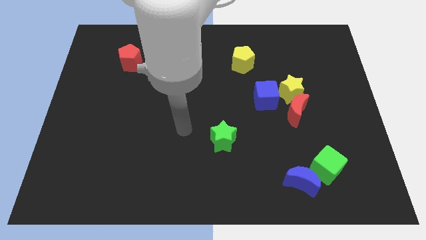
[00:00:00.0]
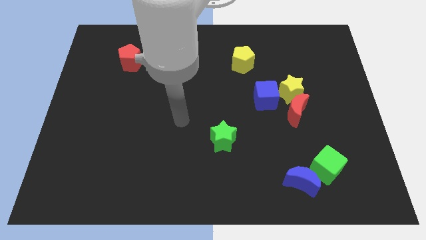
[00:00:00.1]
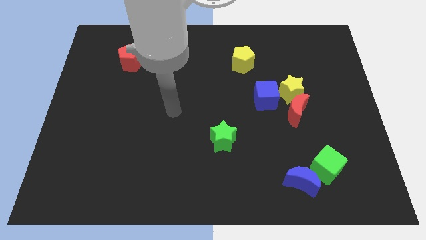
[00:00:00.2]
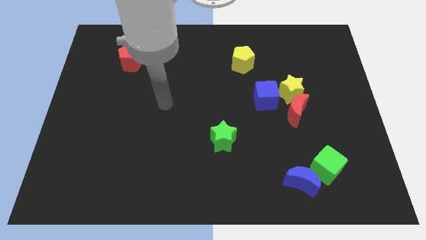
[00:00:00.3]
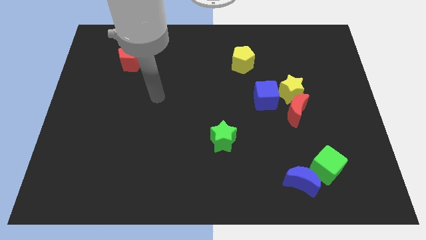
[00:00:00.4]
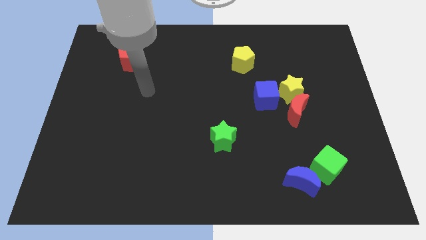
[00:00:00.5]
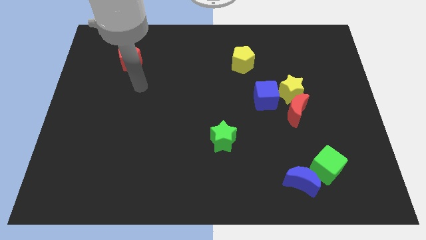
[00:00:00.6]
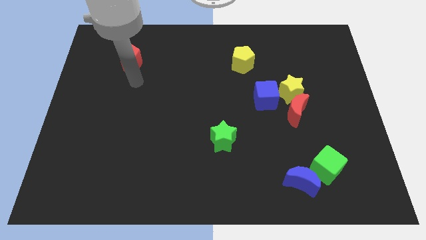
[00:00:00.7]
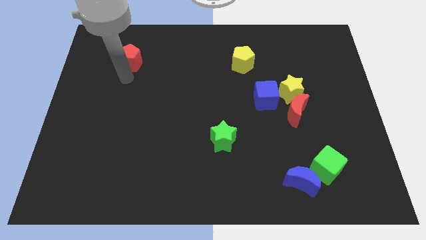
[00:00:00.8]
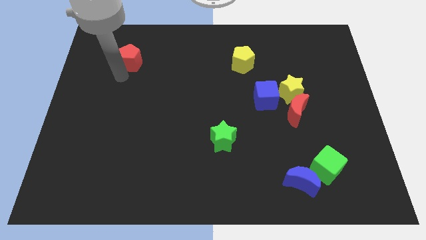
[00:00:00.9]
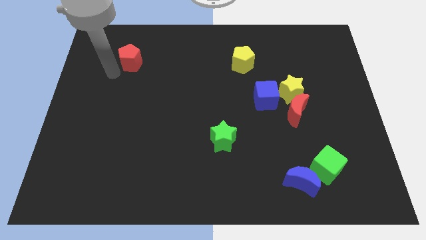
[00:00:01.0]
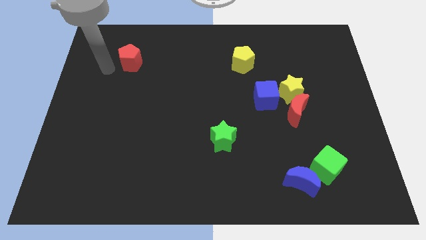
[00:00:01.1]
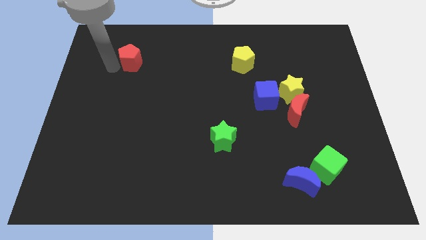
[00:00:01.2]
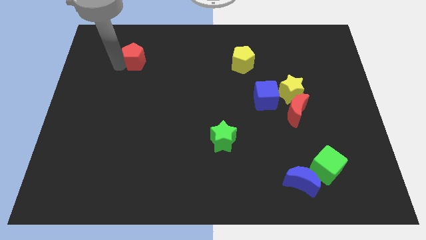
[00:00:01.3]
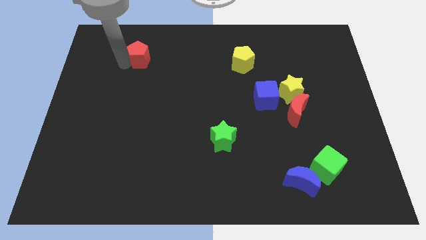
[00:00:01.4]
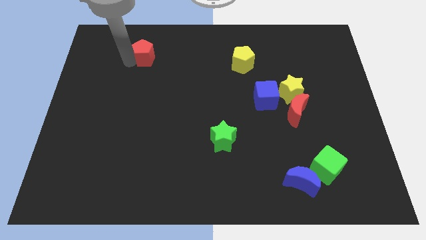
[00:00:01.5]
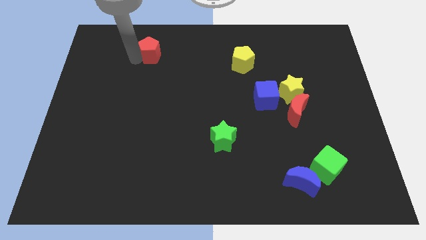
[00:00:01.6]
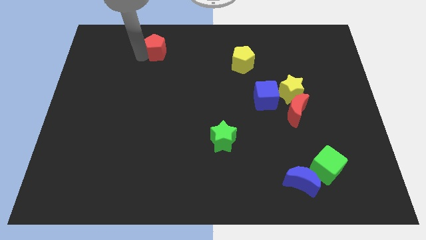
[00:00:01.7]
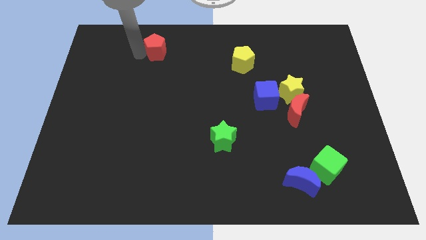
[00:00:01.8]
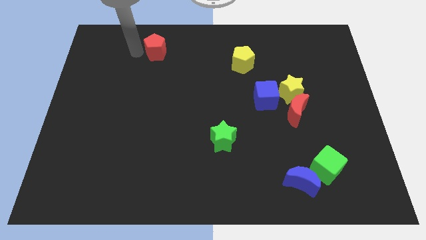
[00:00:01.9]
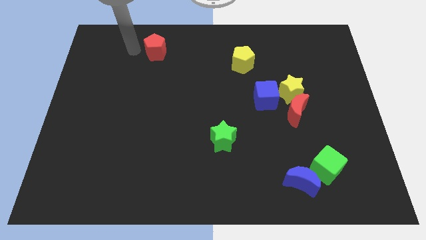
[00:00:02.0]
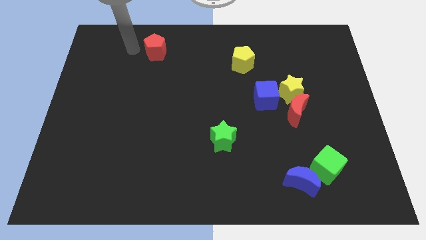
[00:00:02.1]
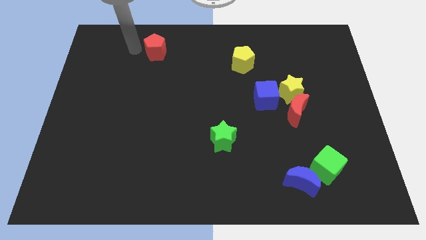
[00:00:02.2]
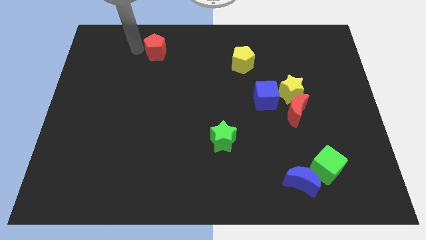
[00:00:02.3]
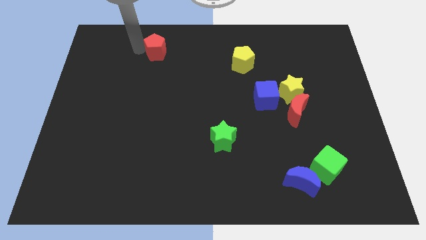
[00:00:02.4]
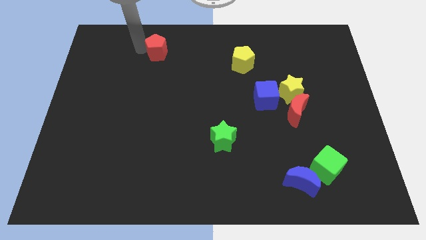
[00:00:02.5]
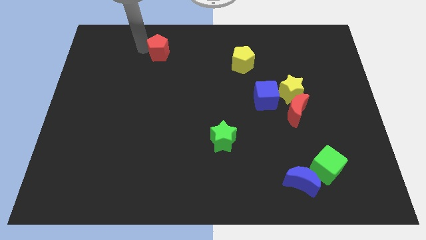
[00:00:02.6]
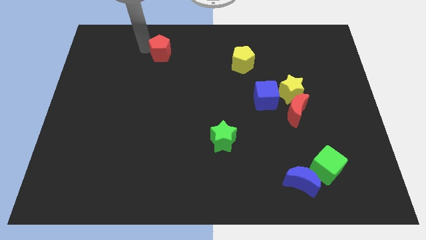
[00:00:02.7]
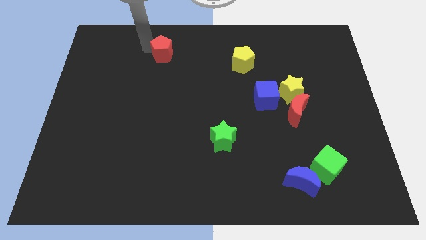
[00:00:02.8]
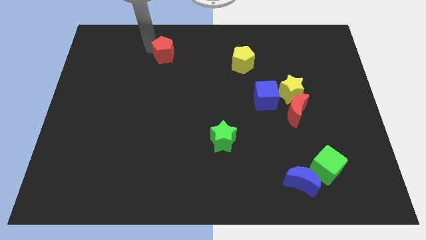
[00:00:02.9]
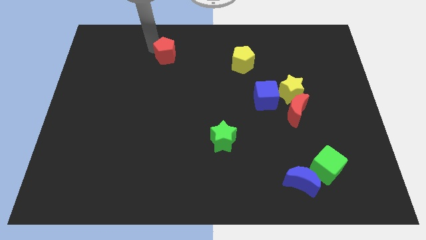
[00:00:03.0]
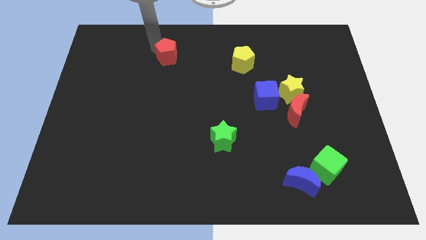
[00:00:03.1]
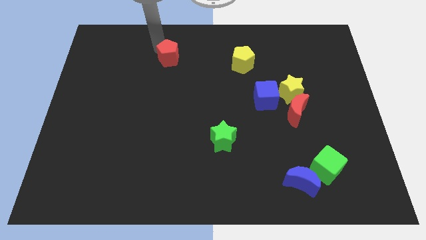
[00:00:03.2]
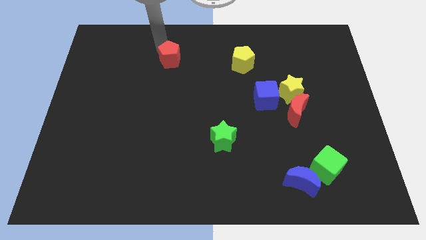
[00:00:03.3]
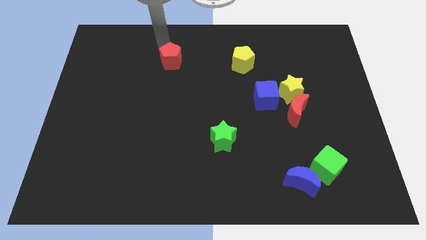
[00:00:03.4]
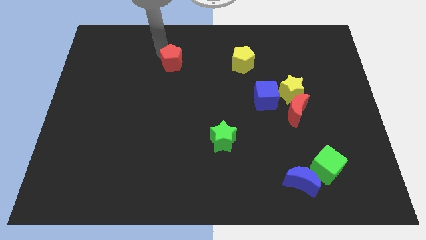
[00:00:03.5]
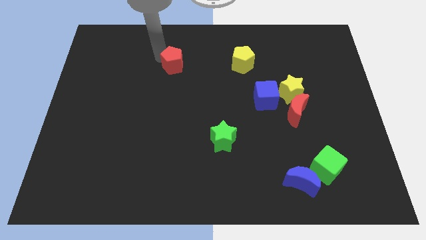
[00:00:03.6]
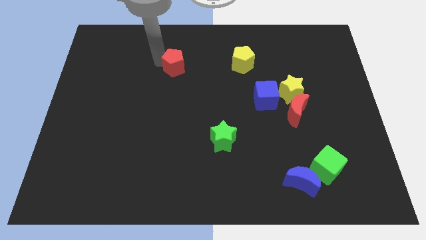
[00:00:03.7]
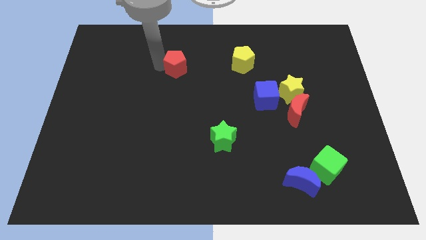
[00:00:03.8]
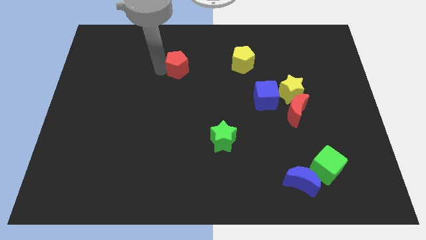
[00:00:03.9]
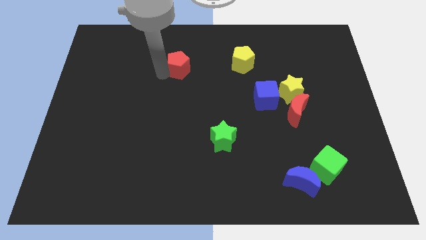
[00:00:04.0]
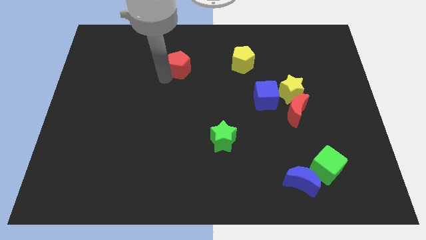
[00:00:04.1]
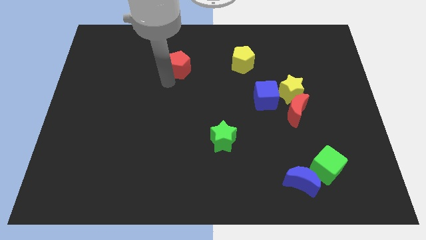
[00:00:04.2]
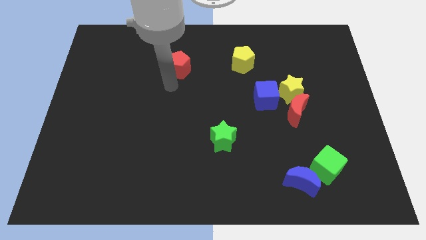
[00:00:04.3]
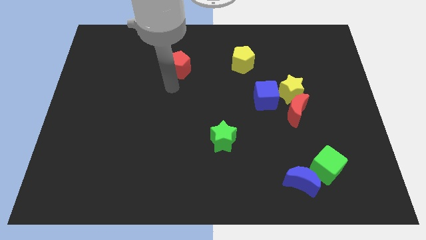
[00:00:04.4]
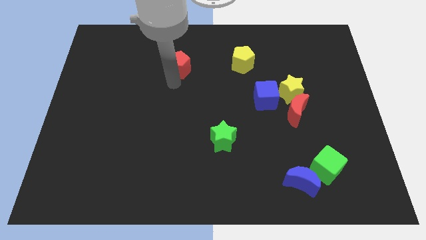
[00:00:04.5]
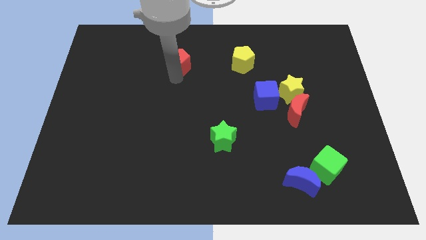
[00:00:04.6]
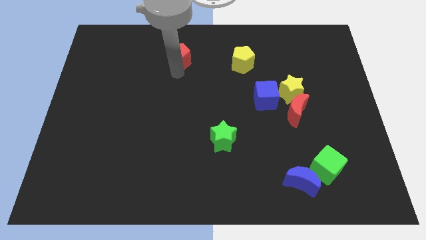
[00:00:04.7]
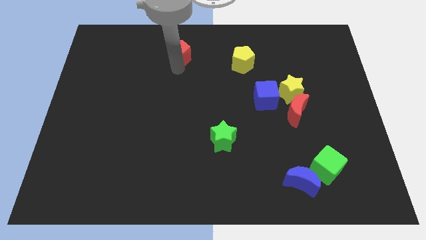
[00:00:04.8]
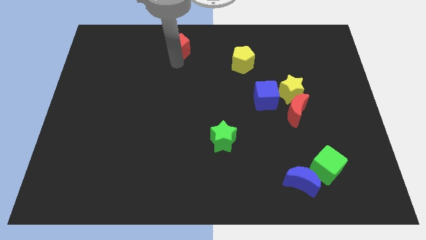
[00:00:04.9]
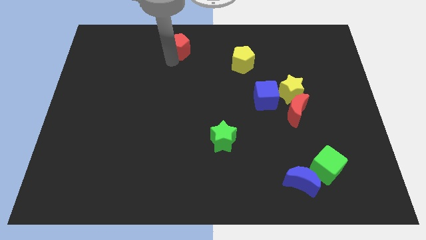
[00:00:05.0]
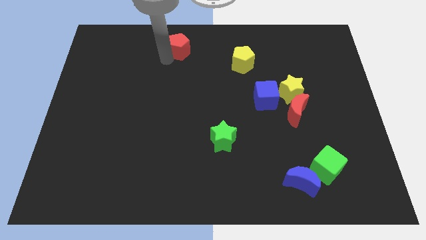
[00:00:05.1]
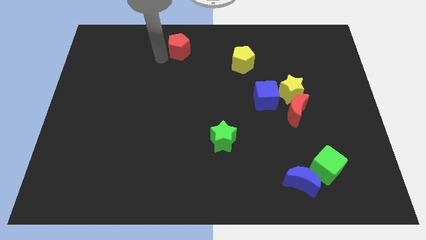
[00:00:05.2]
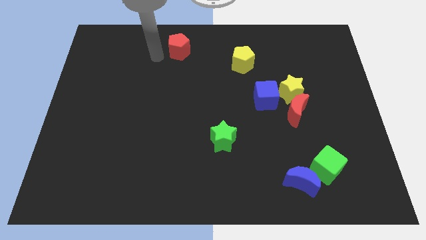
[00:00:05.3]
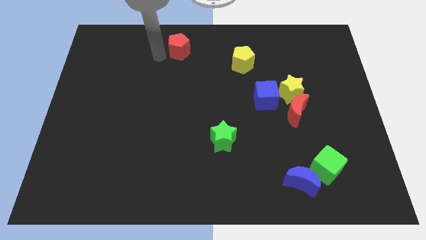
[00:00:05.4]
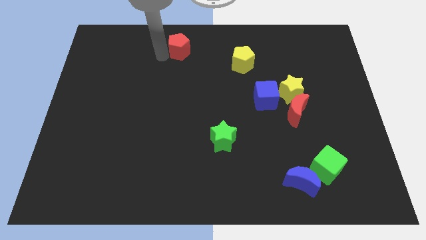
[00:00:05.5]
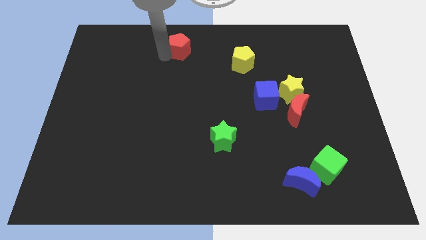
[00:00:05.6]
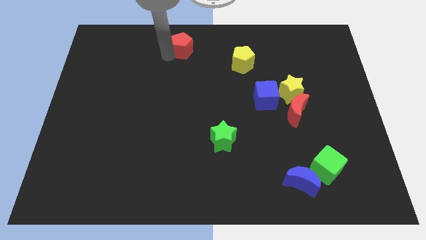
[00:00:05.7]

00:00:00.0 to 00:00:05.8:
put the red pentagon to the top
